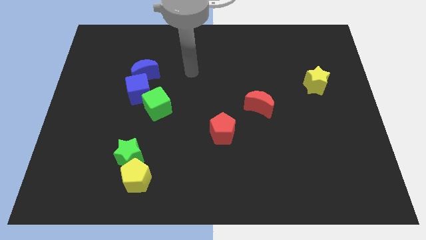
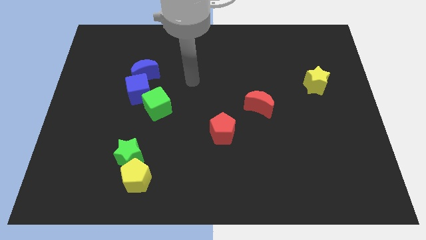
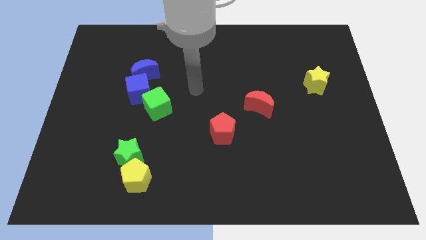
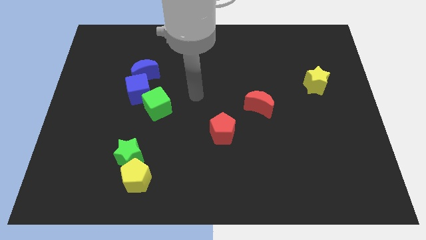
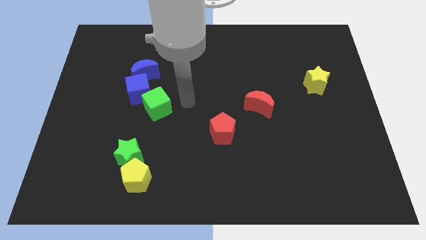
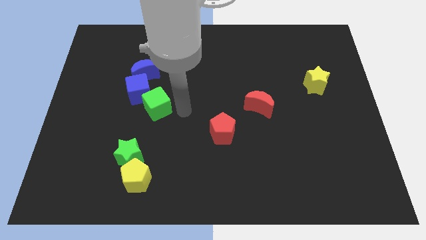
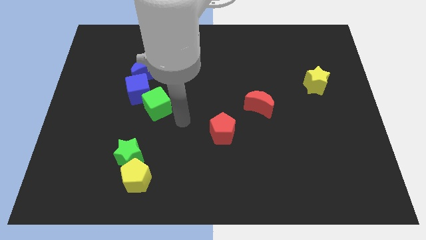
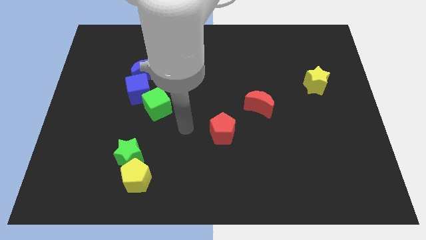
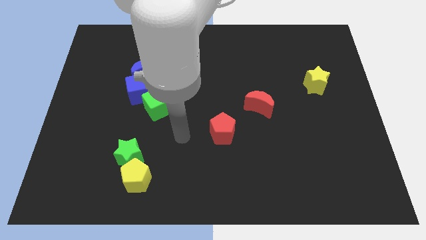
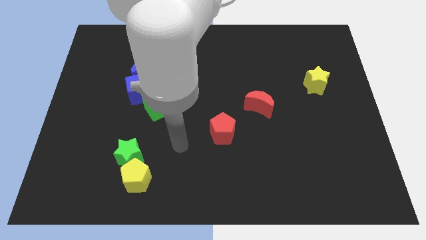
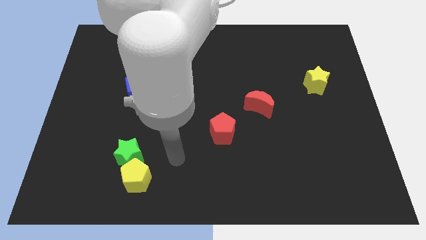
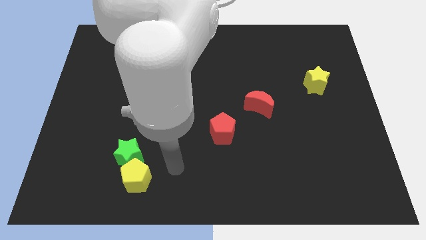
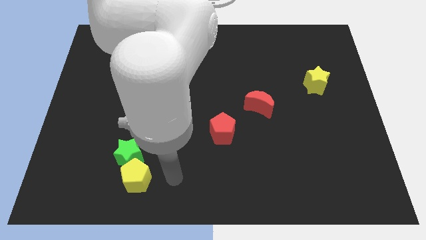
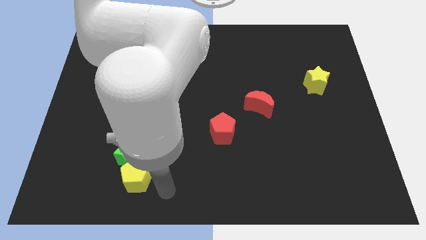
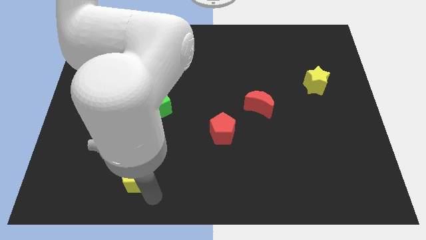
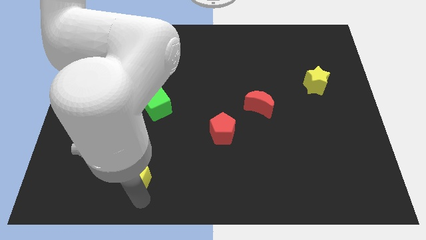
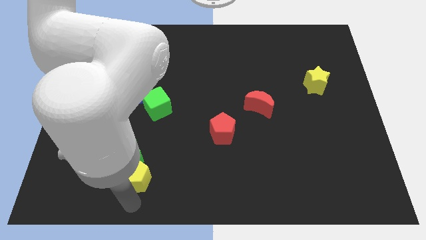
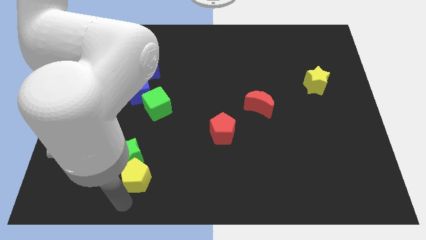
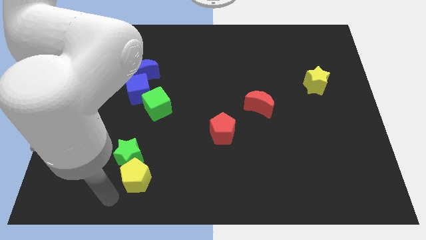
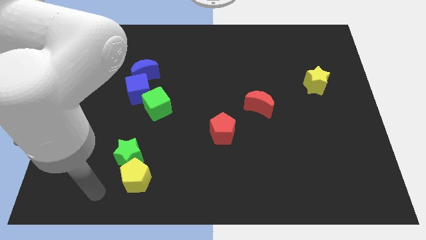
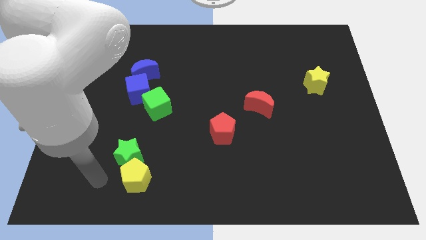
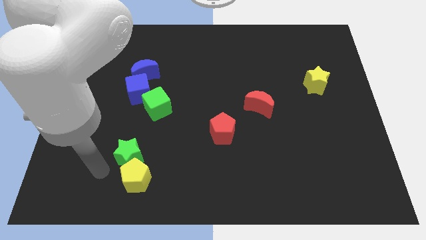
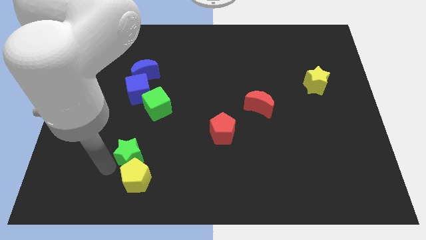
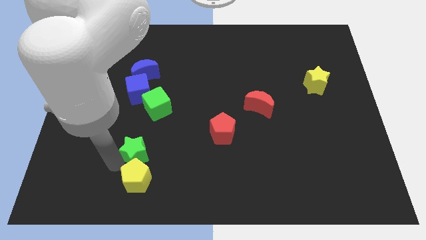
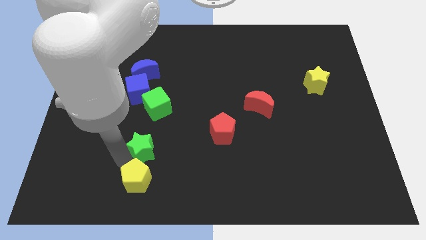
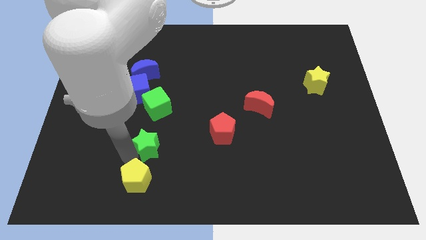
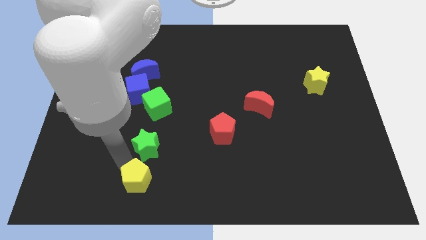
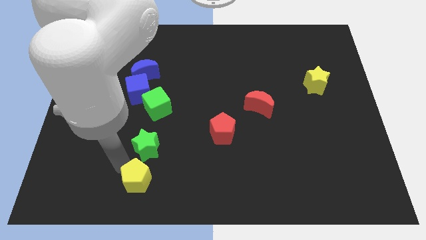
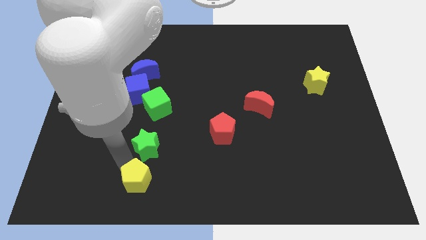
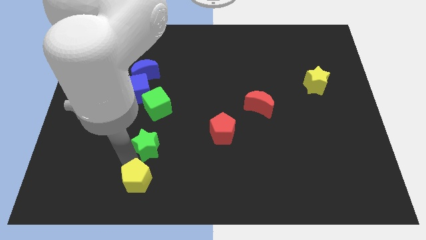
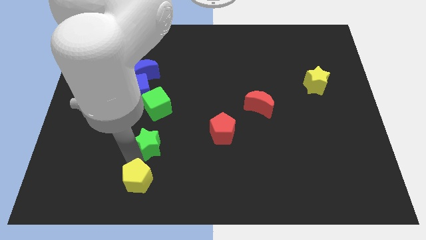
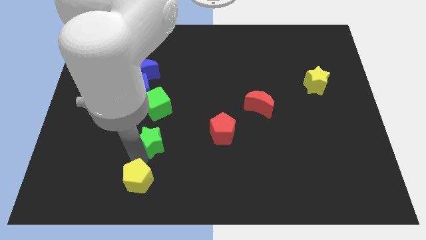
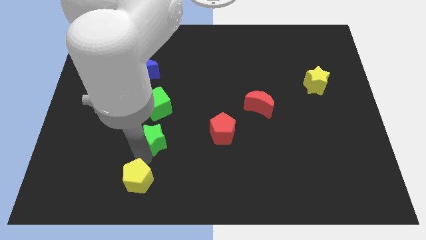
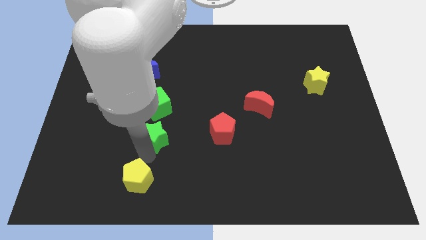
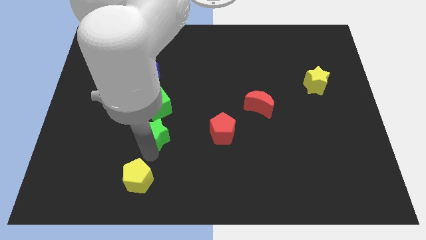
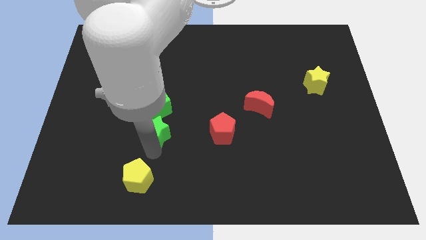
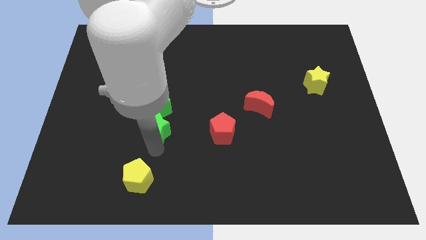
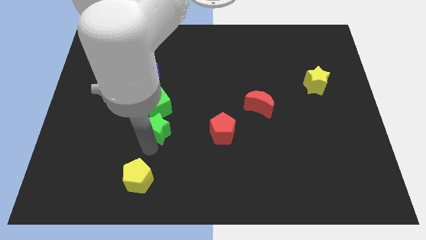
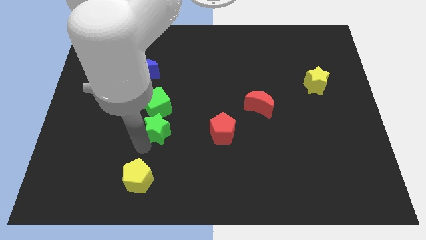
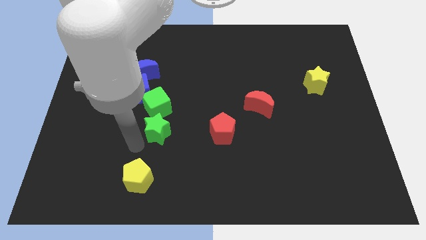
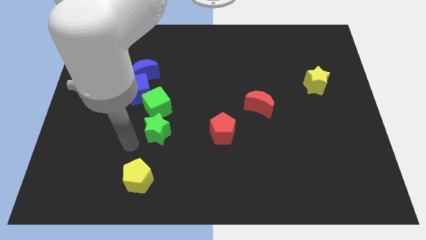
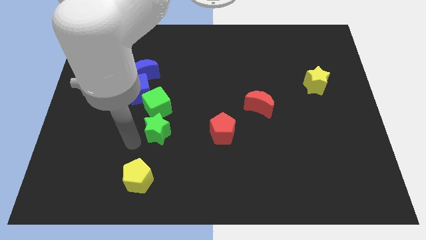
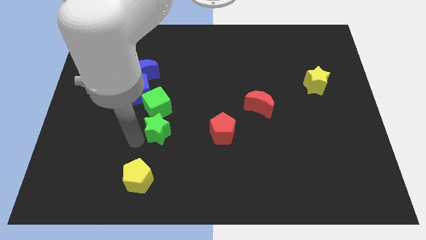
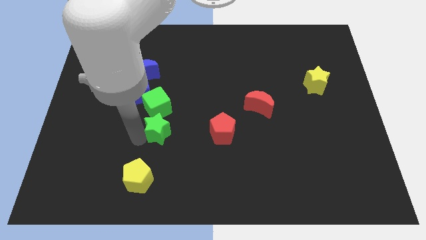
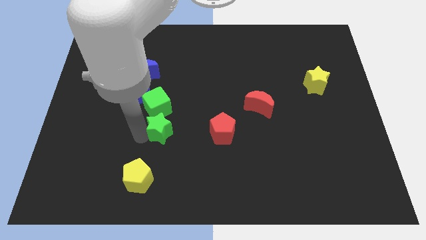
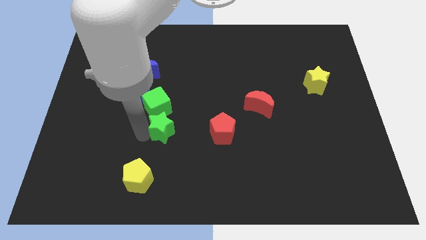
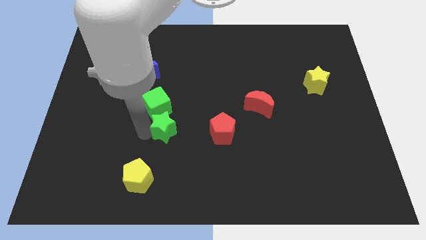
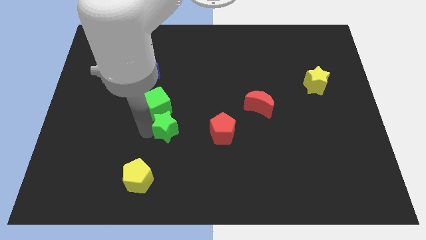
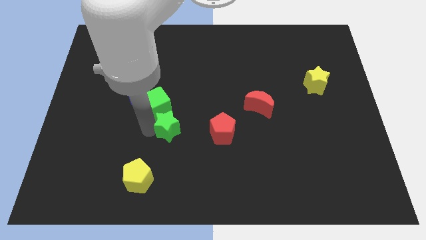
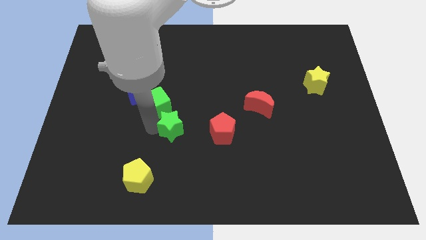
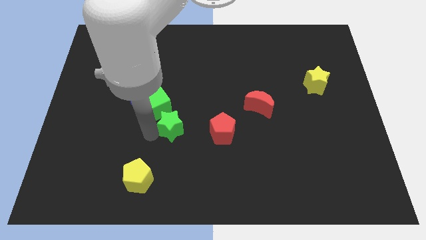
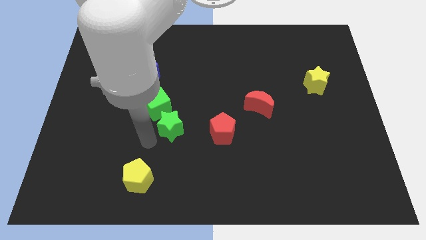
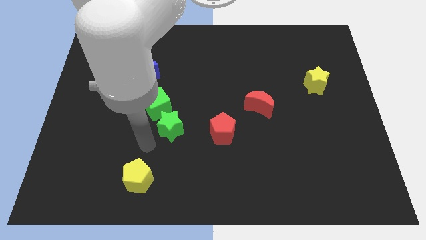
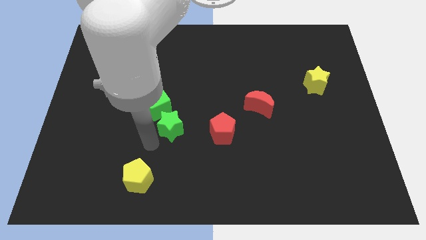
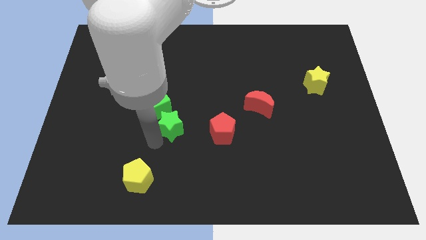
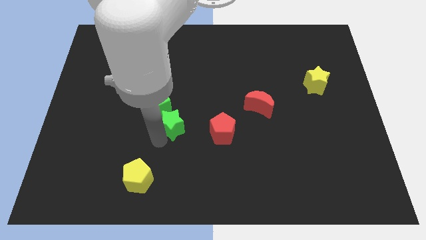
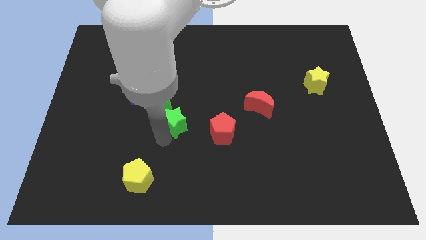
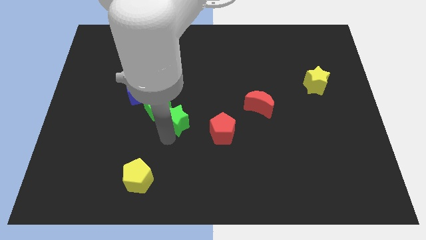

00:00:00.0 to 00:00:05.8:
move the green star right of the green cube
